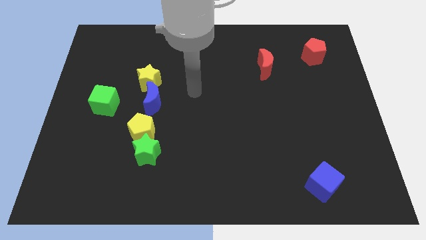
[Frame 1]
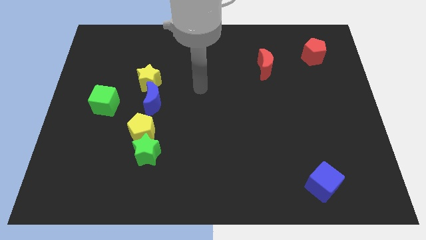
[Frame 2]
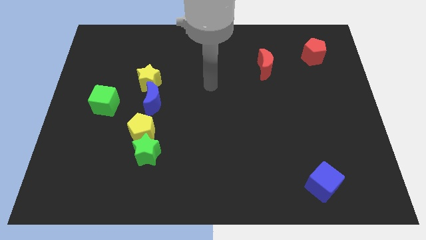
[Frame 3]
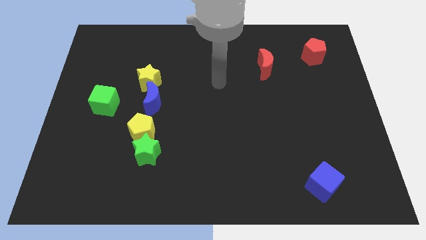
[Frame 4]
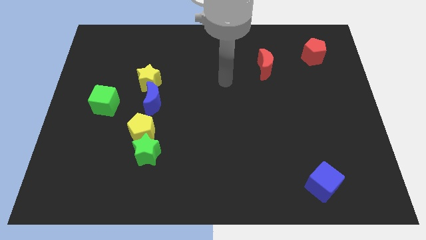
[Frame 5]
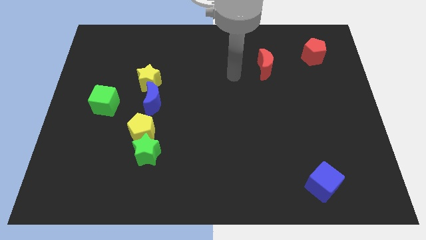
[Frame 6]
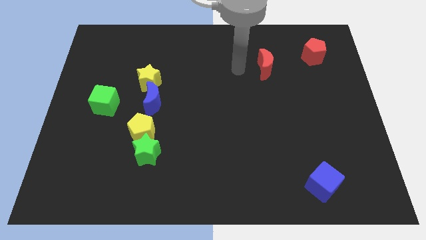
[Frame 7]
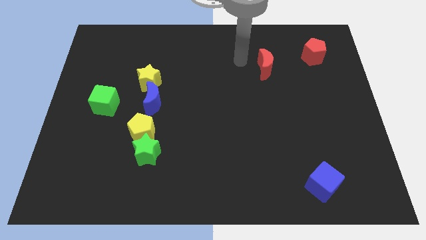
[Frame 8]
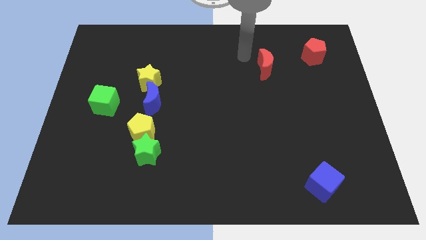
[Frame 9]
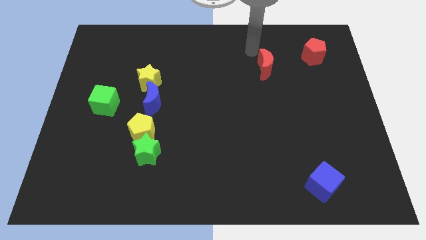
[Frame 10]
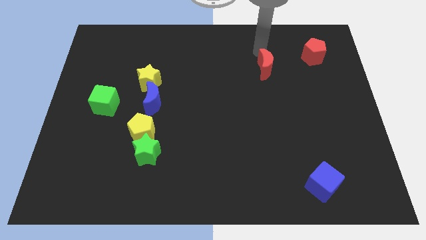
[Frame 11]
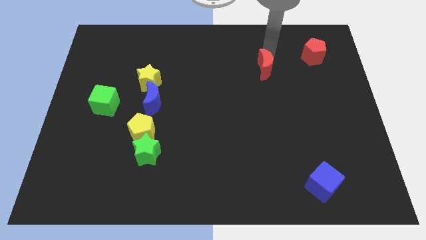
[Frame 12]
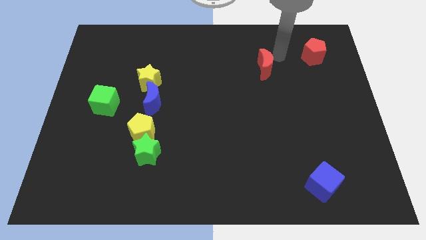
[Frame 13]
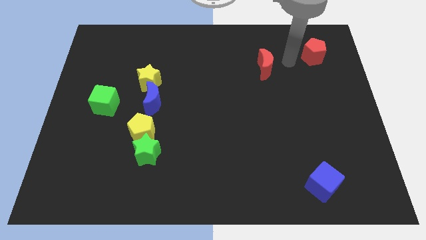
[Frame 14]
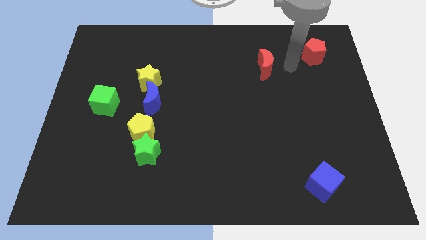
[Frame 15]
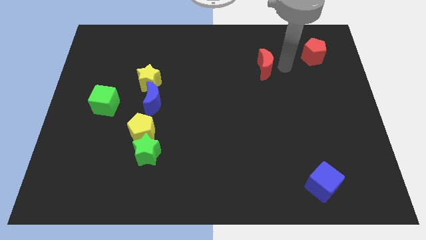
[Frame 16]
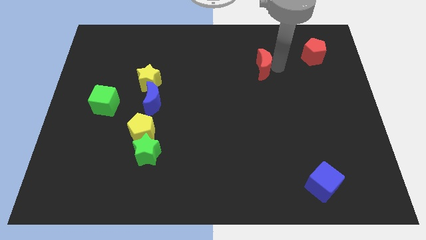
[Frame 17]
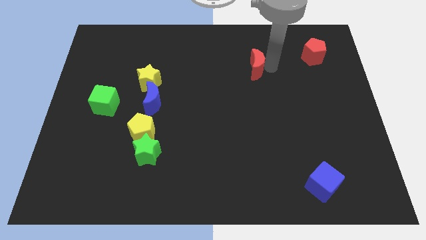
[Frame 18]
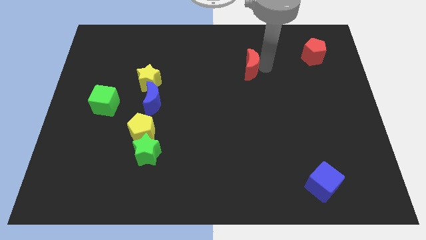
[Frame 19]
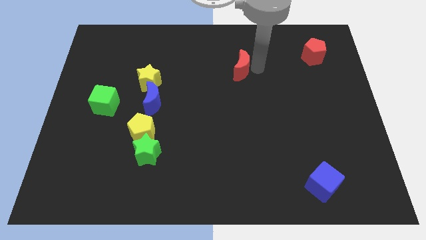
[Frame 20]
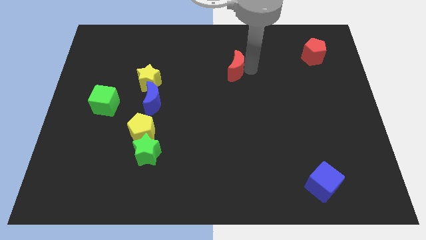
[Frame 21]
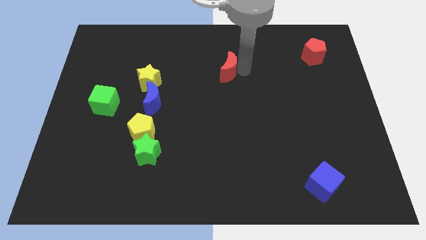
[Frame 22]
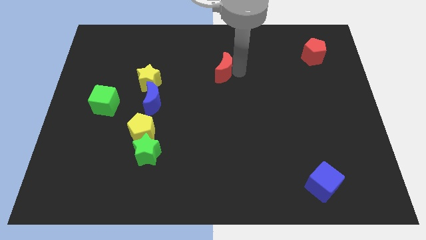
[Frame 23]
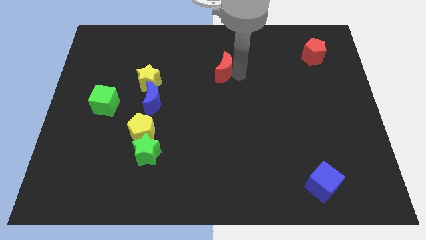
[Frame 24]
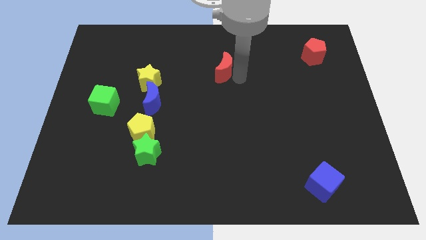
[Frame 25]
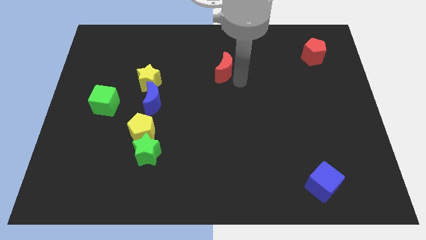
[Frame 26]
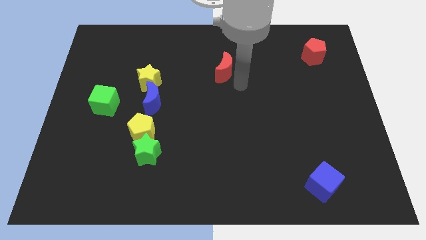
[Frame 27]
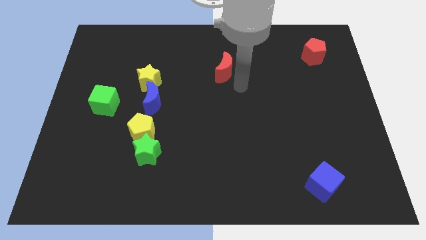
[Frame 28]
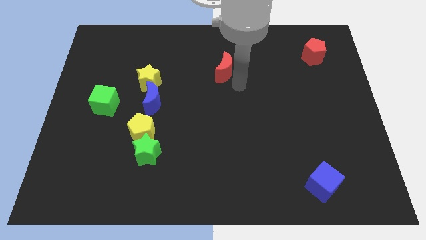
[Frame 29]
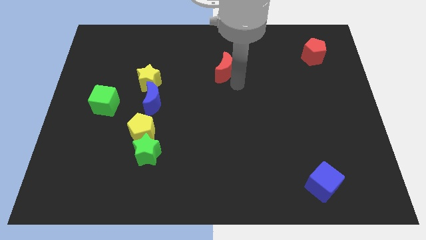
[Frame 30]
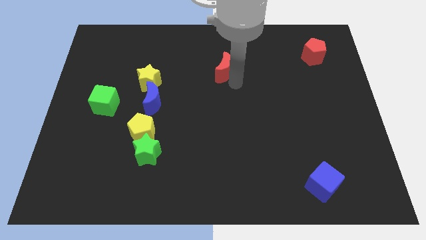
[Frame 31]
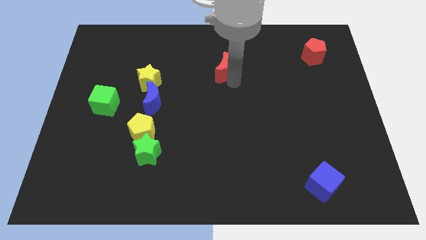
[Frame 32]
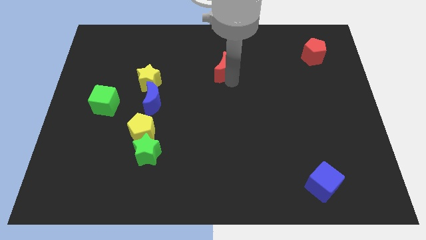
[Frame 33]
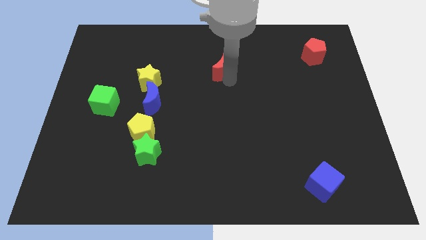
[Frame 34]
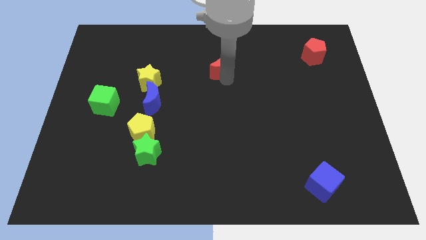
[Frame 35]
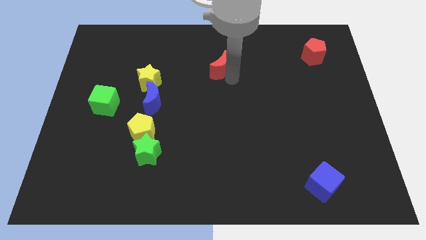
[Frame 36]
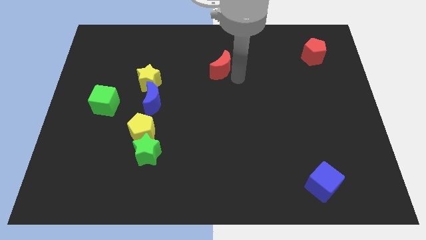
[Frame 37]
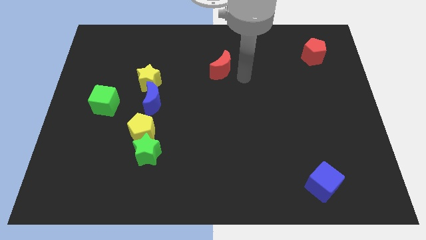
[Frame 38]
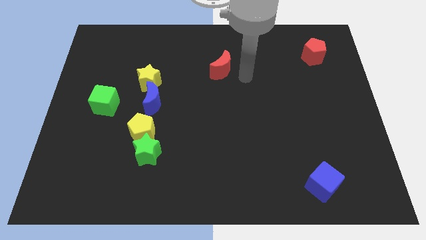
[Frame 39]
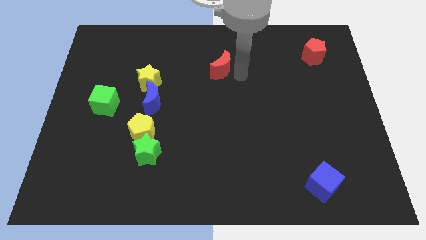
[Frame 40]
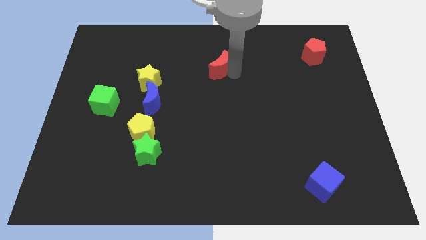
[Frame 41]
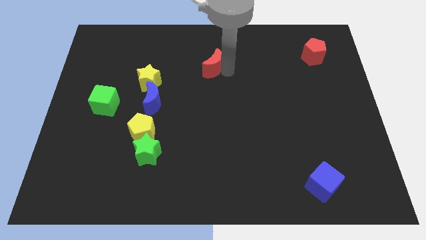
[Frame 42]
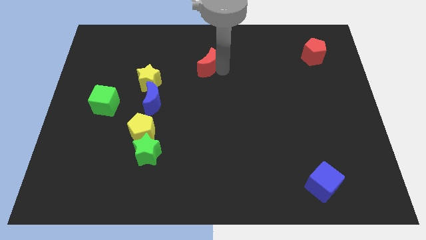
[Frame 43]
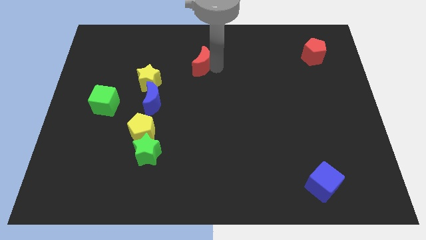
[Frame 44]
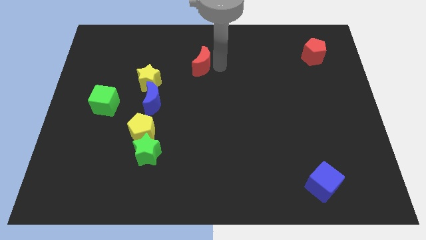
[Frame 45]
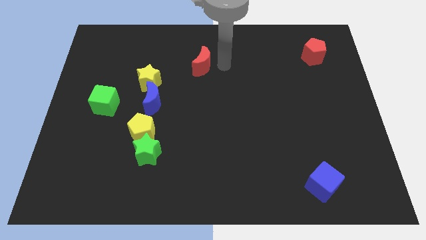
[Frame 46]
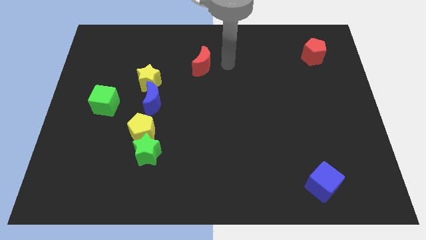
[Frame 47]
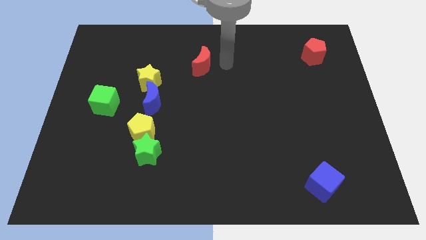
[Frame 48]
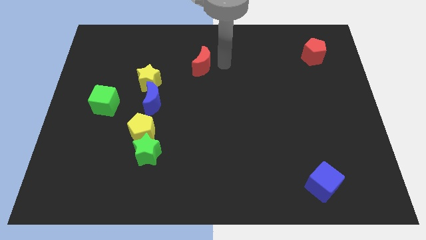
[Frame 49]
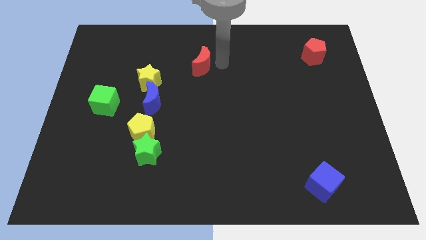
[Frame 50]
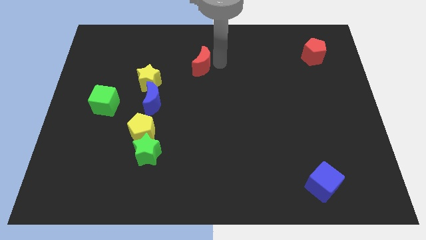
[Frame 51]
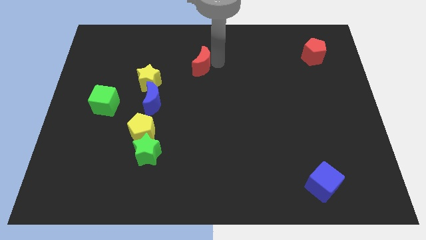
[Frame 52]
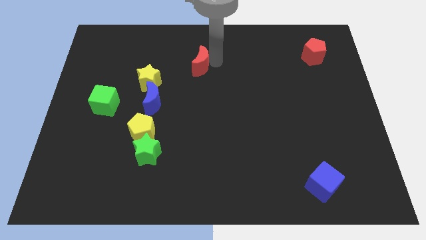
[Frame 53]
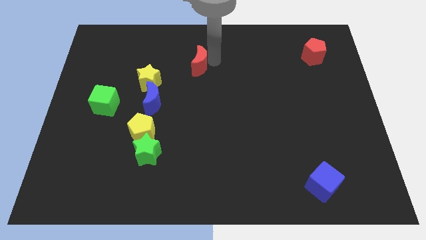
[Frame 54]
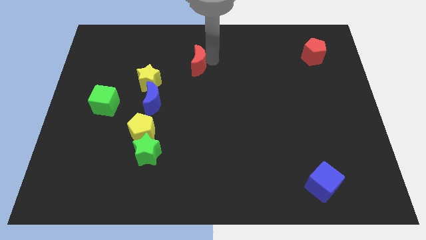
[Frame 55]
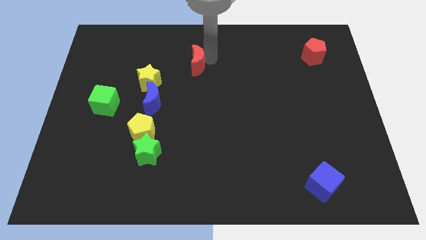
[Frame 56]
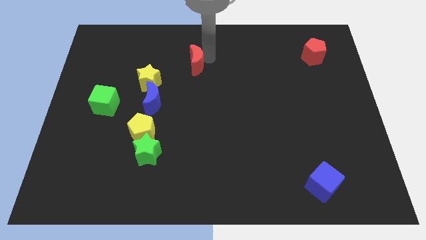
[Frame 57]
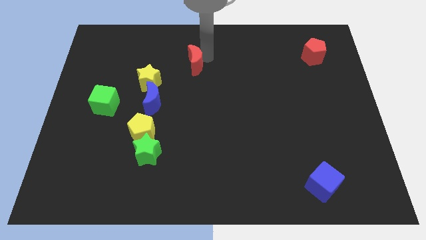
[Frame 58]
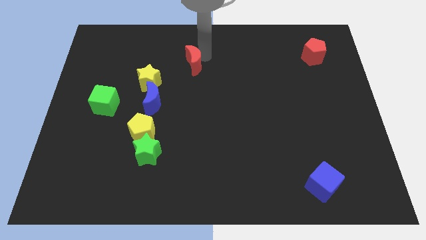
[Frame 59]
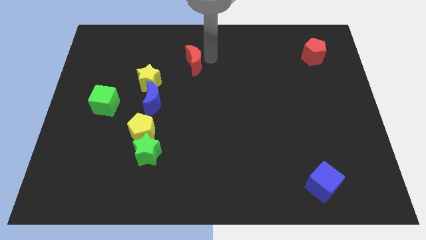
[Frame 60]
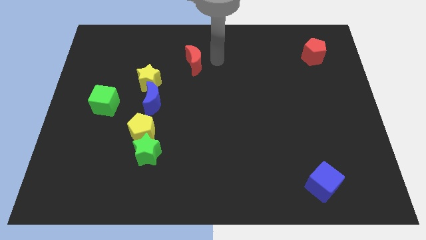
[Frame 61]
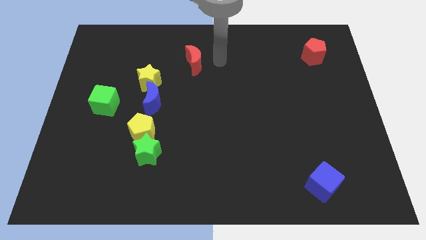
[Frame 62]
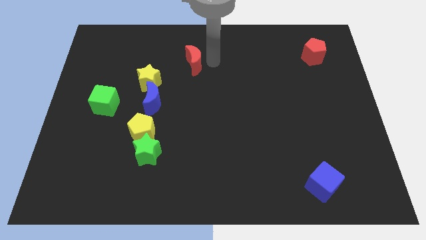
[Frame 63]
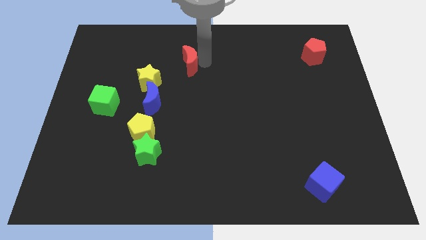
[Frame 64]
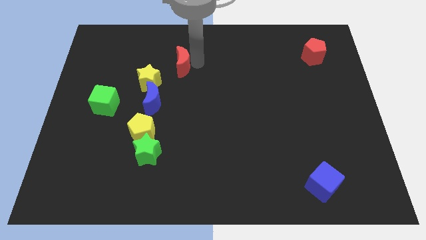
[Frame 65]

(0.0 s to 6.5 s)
push the red moon to the left

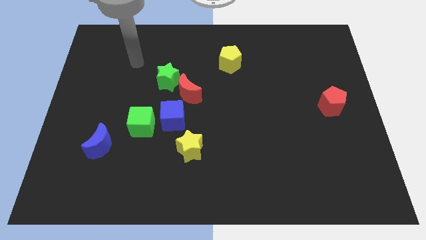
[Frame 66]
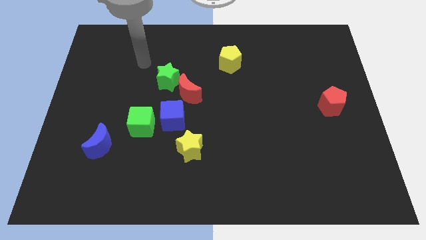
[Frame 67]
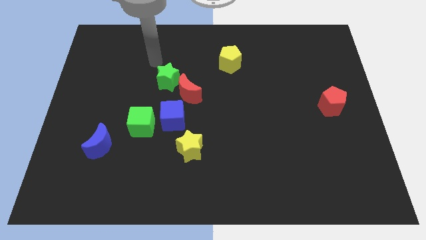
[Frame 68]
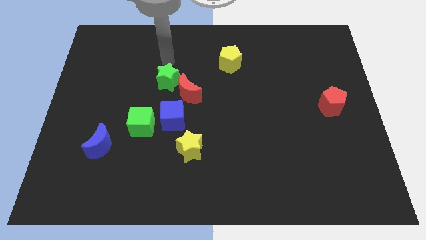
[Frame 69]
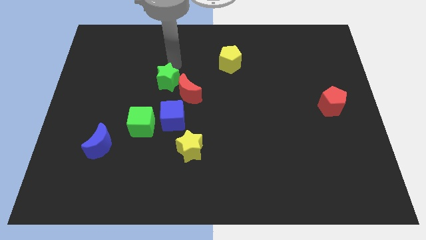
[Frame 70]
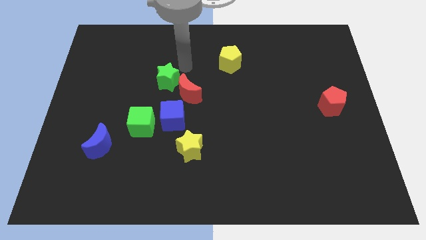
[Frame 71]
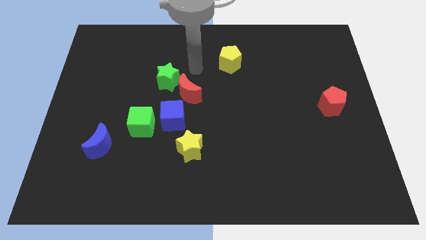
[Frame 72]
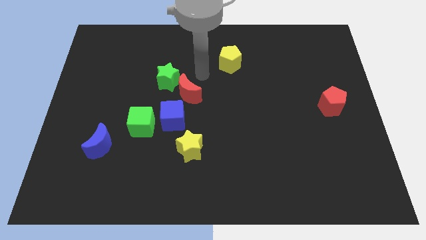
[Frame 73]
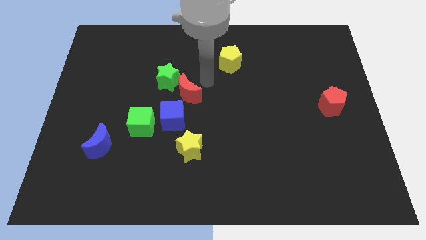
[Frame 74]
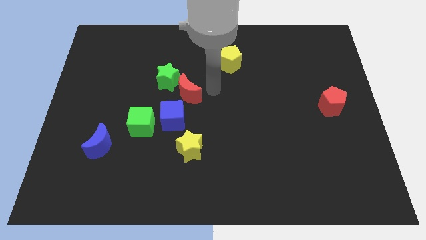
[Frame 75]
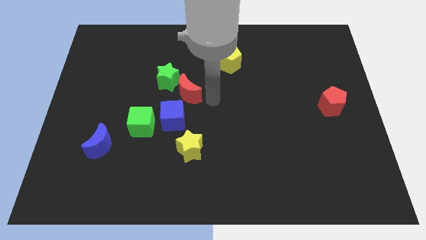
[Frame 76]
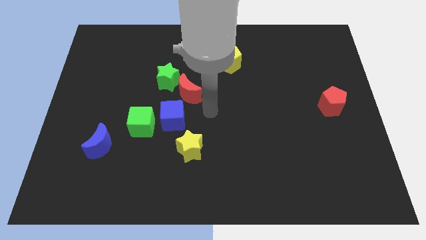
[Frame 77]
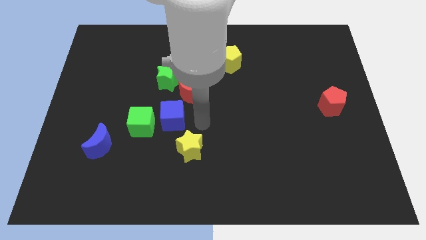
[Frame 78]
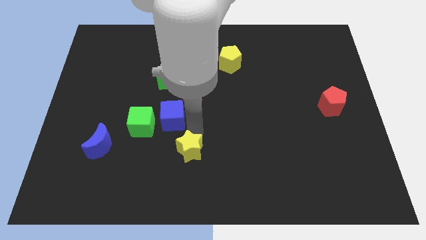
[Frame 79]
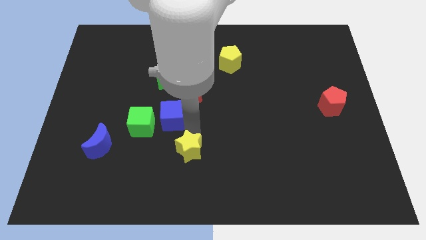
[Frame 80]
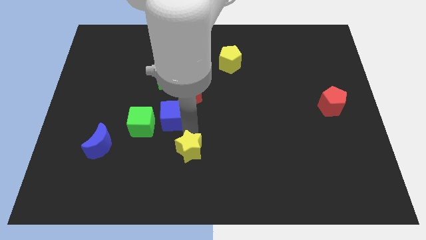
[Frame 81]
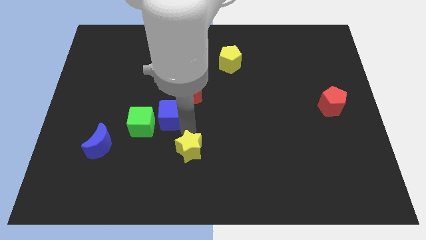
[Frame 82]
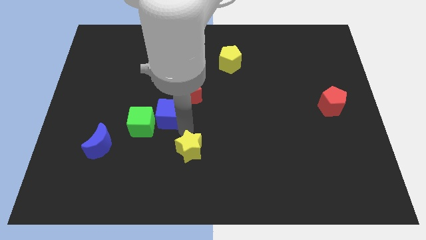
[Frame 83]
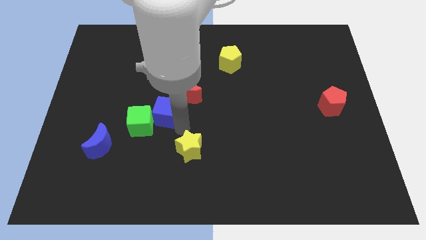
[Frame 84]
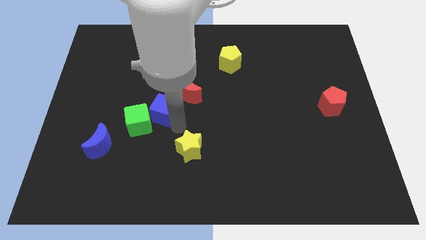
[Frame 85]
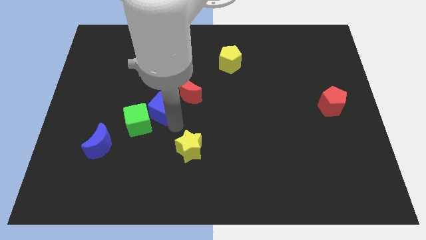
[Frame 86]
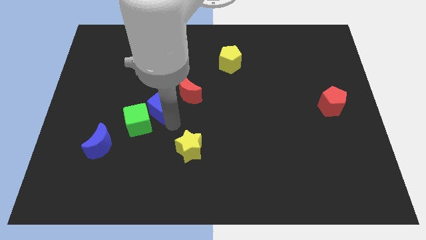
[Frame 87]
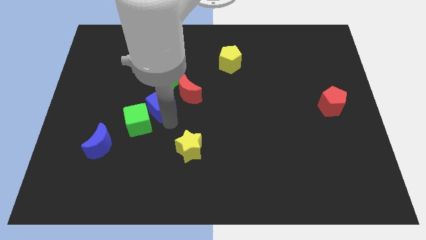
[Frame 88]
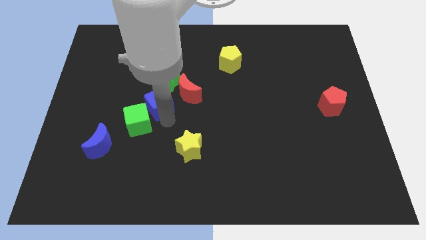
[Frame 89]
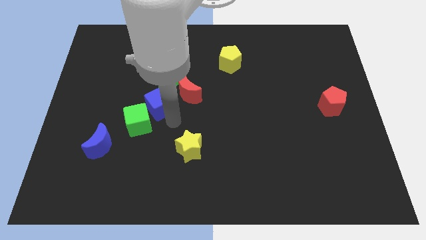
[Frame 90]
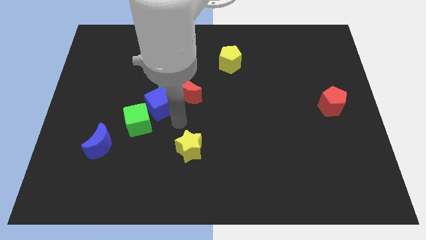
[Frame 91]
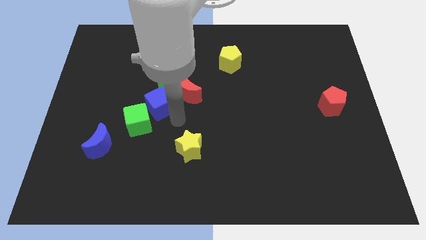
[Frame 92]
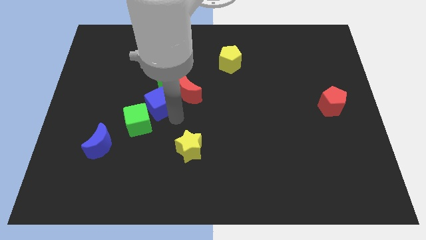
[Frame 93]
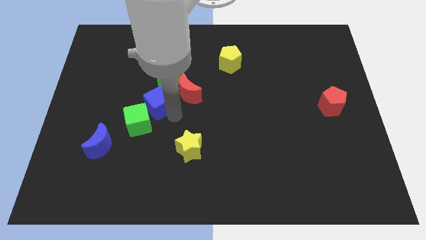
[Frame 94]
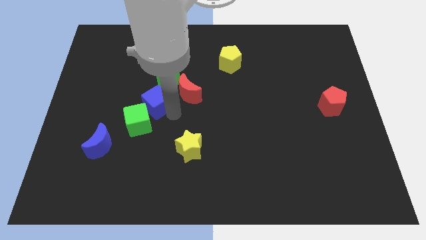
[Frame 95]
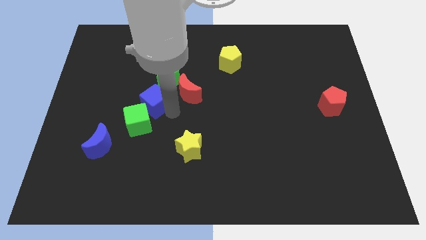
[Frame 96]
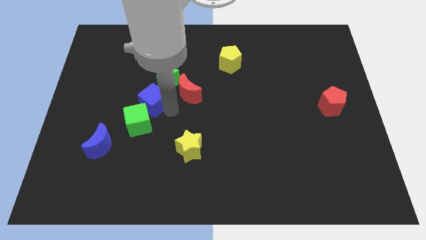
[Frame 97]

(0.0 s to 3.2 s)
slide the blue cube diagonally upwards and left a bit
